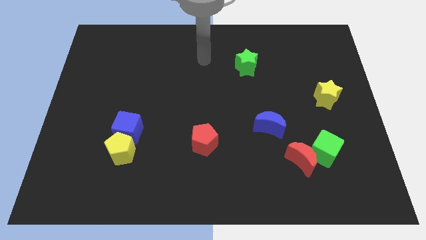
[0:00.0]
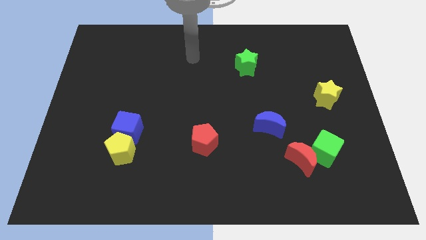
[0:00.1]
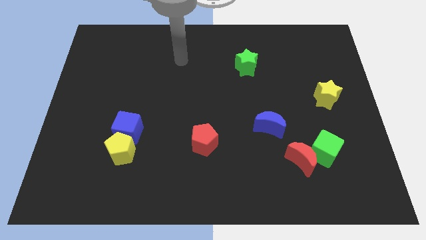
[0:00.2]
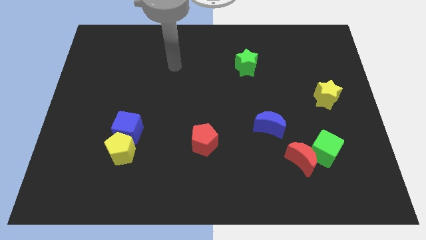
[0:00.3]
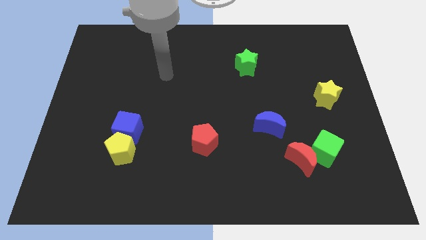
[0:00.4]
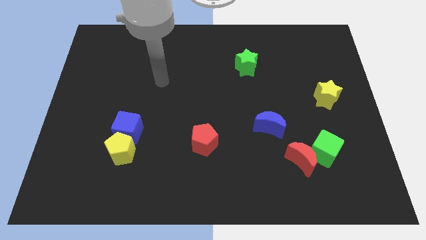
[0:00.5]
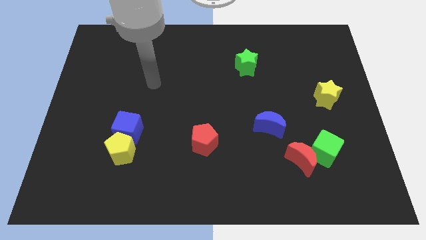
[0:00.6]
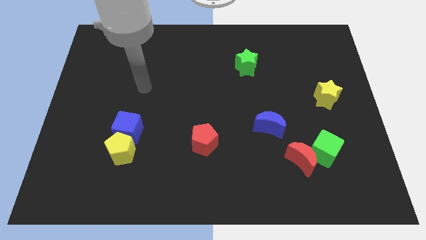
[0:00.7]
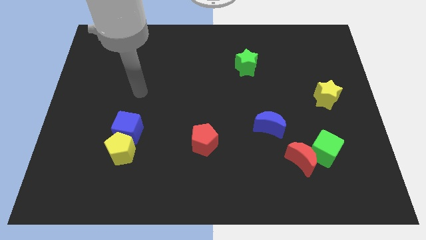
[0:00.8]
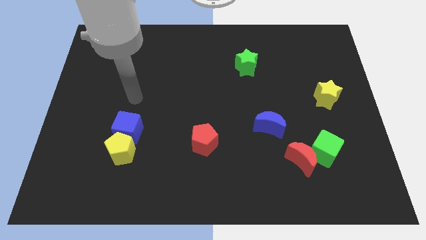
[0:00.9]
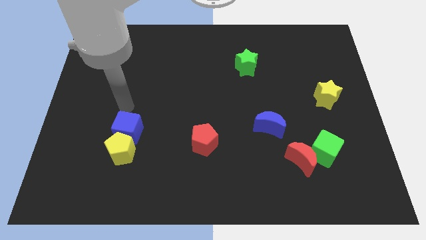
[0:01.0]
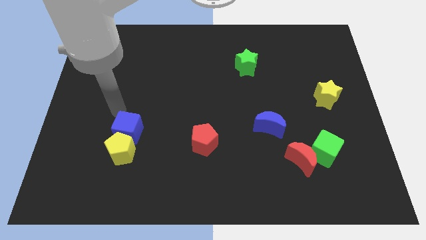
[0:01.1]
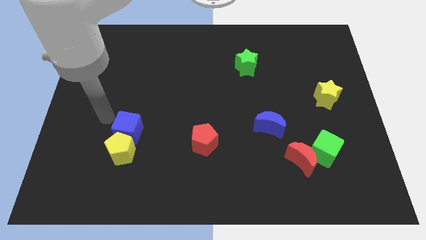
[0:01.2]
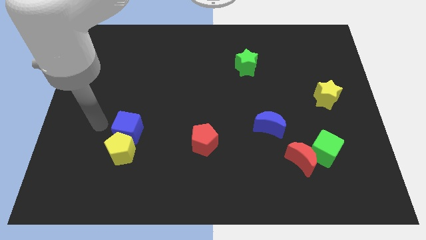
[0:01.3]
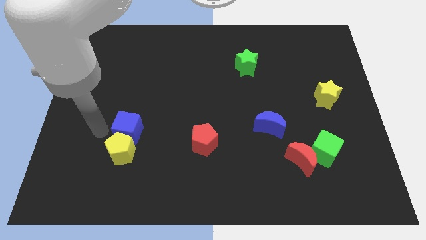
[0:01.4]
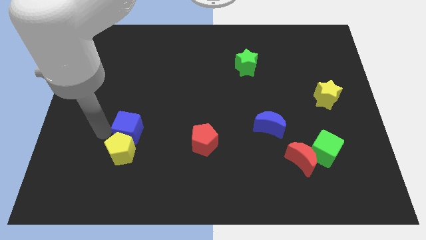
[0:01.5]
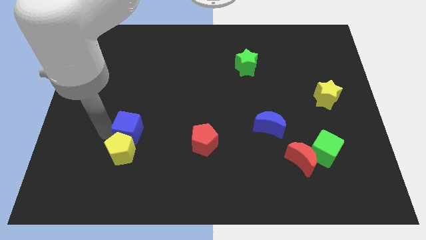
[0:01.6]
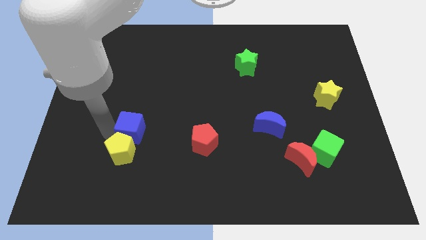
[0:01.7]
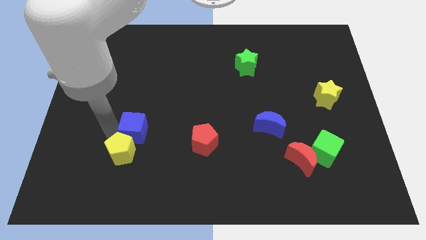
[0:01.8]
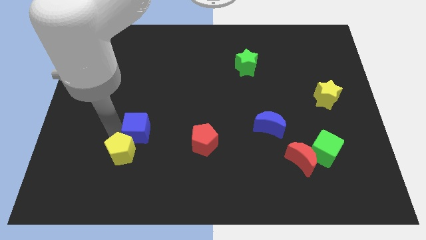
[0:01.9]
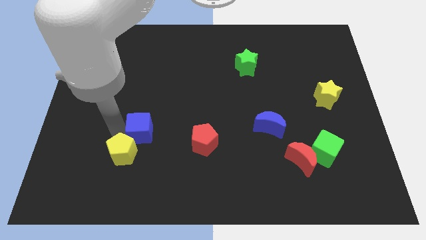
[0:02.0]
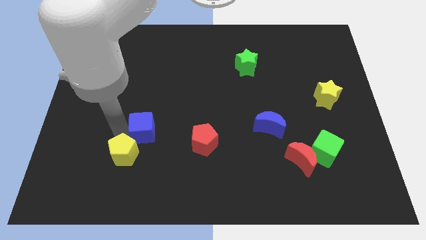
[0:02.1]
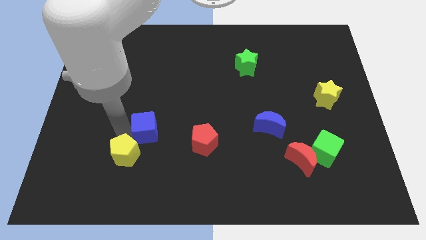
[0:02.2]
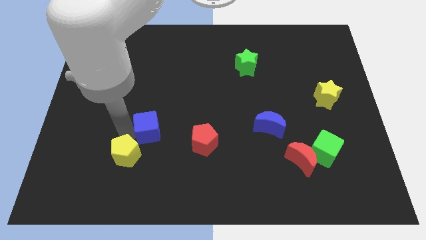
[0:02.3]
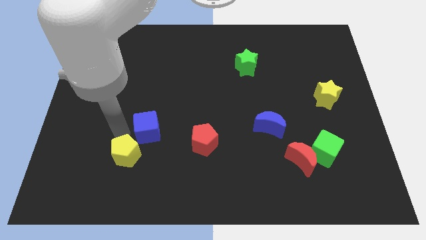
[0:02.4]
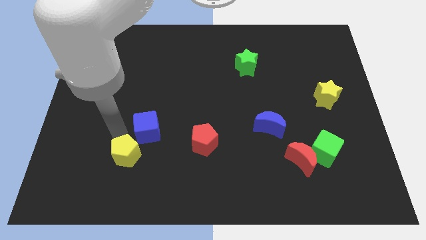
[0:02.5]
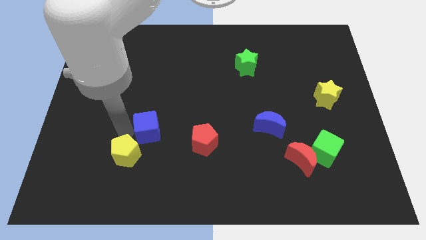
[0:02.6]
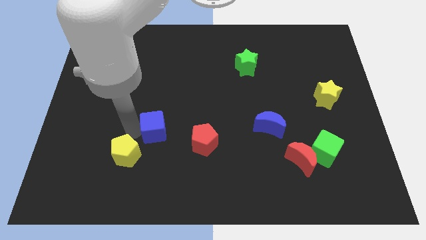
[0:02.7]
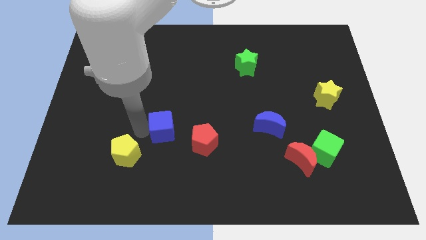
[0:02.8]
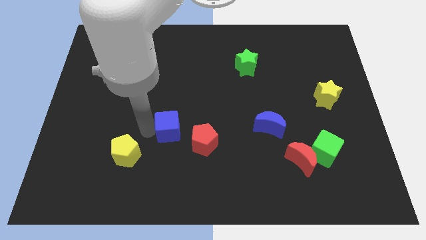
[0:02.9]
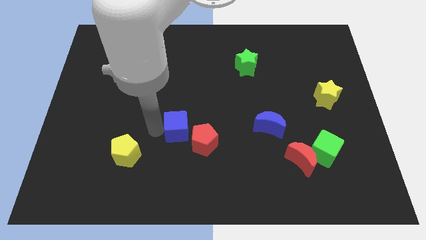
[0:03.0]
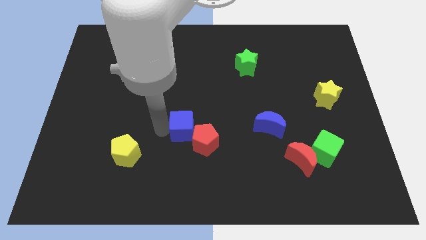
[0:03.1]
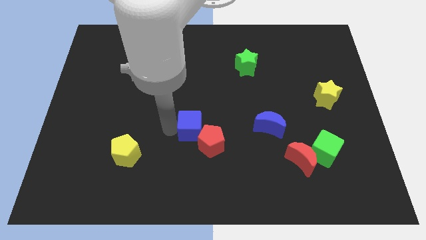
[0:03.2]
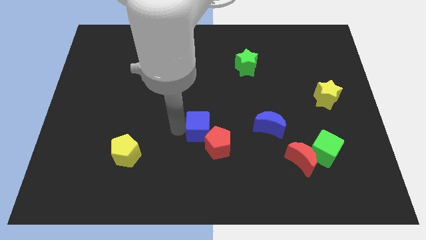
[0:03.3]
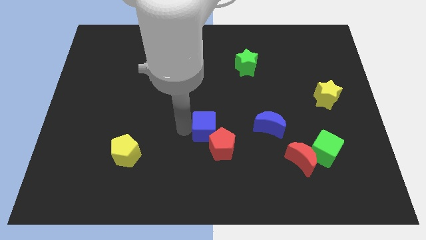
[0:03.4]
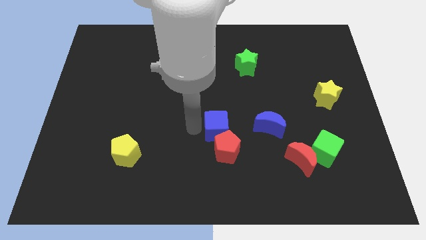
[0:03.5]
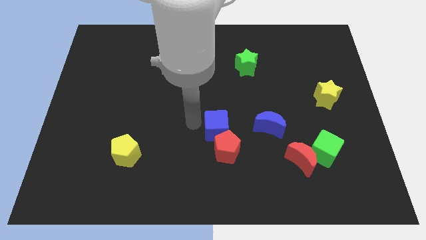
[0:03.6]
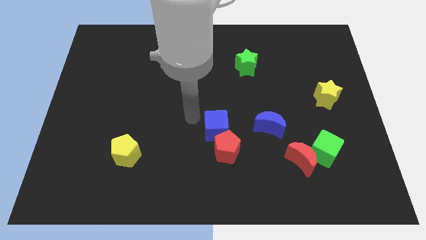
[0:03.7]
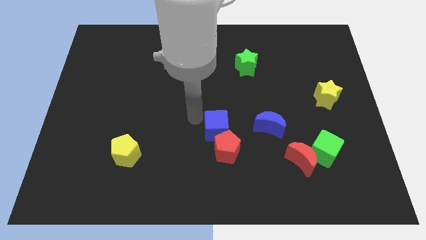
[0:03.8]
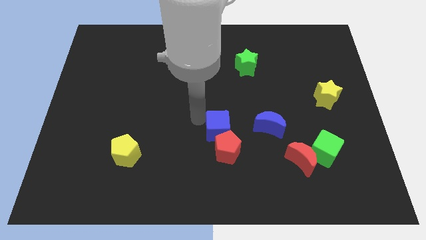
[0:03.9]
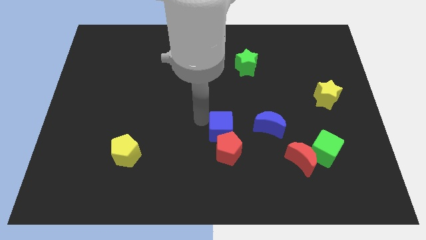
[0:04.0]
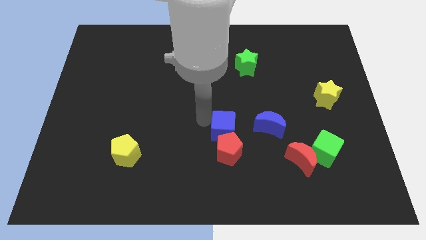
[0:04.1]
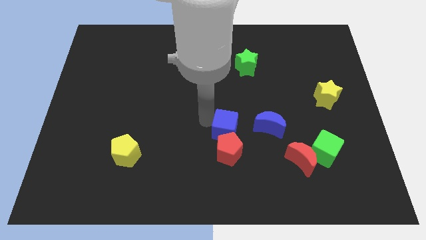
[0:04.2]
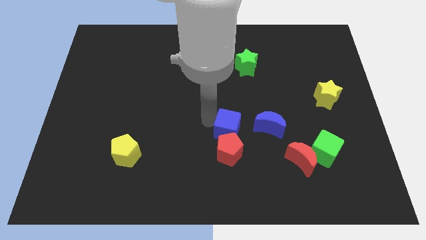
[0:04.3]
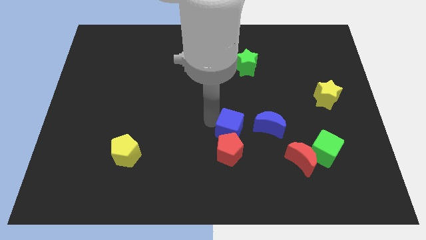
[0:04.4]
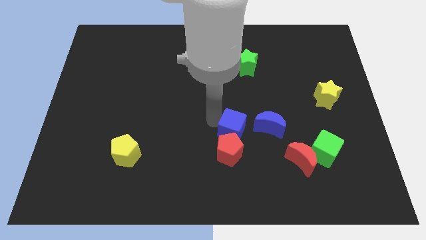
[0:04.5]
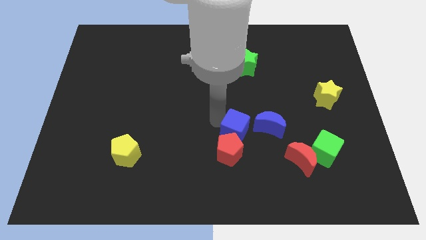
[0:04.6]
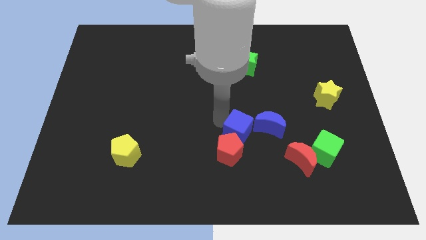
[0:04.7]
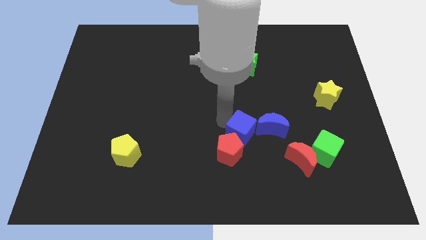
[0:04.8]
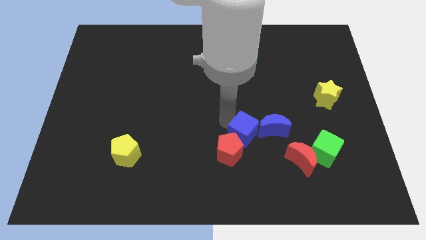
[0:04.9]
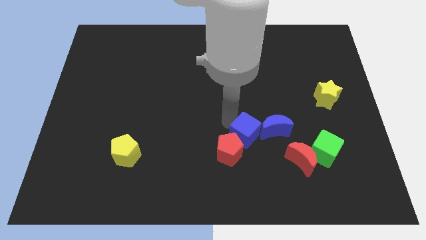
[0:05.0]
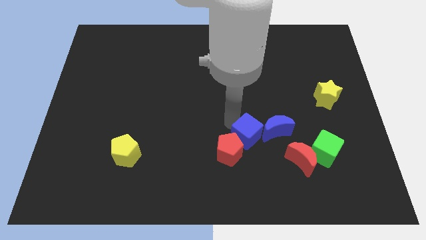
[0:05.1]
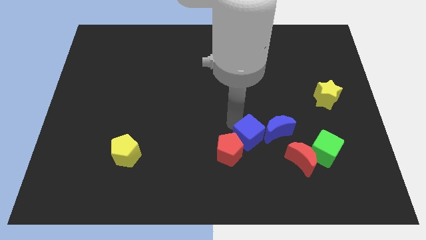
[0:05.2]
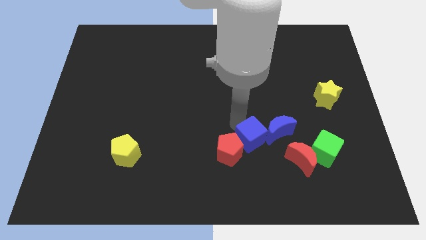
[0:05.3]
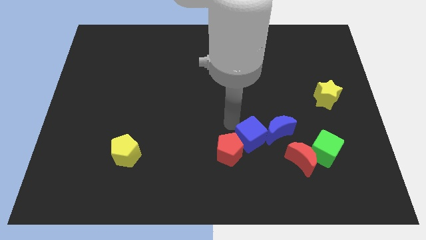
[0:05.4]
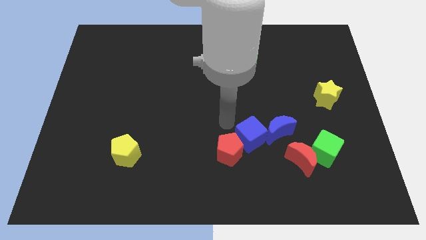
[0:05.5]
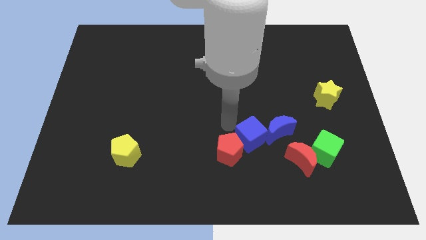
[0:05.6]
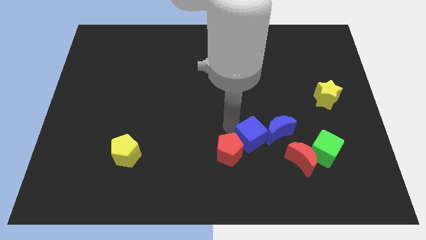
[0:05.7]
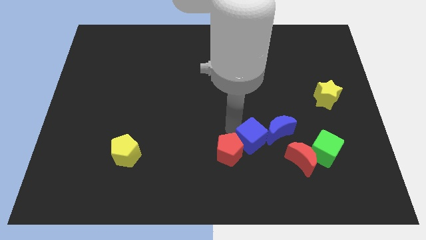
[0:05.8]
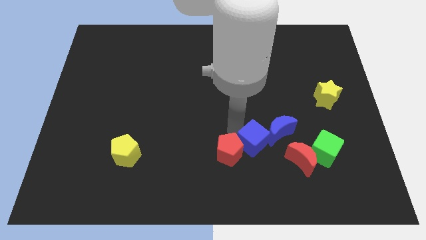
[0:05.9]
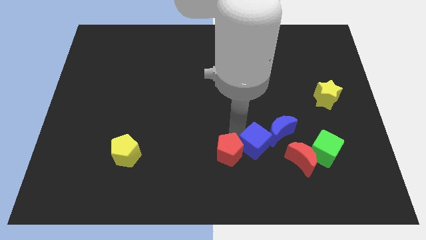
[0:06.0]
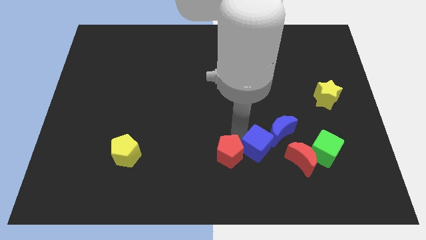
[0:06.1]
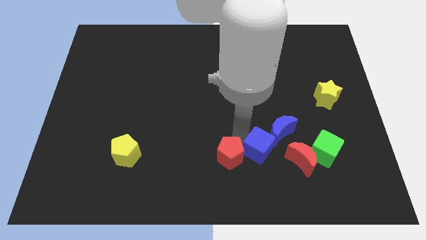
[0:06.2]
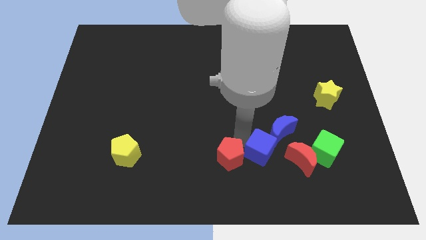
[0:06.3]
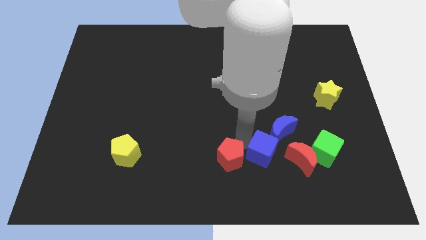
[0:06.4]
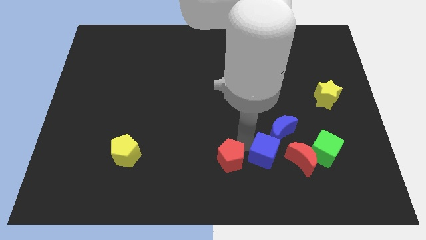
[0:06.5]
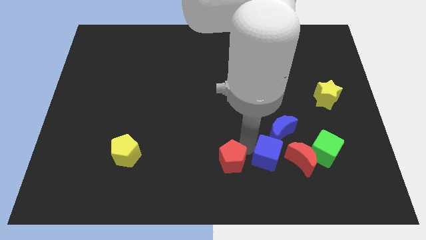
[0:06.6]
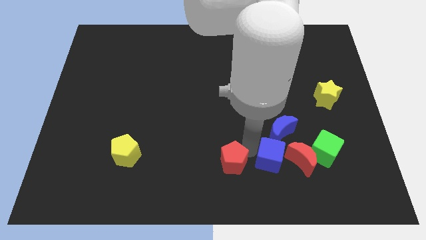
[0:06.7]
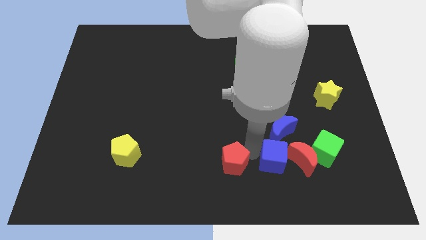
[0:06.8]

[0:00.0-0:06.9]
push the blue cube towards the red moon
